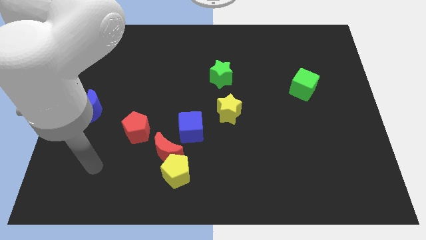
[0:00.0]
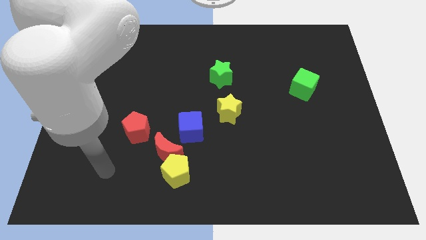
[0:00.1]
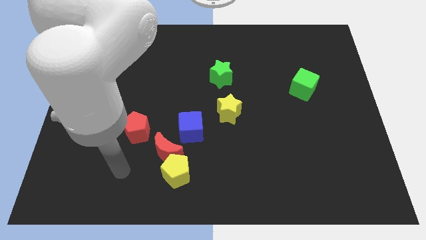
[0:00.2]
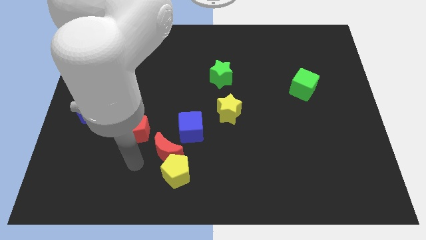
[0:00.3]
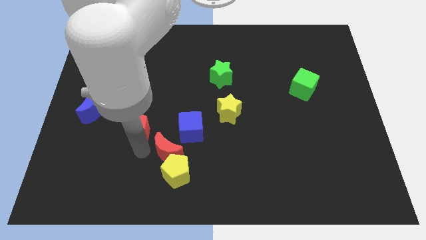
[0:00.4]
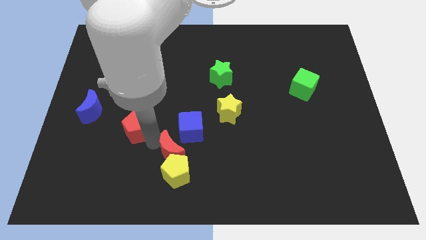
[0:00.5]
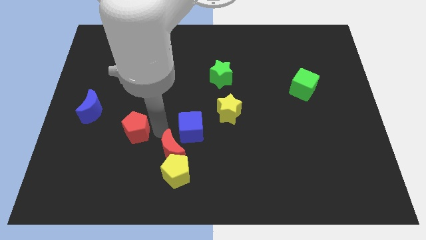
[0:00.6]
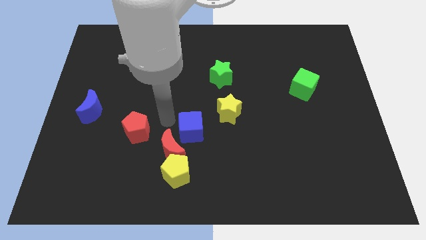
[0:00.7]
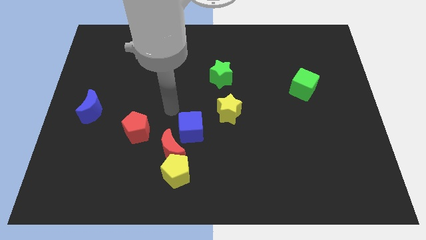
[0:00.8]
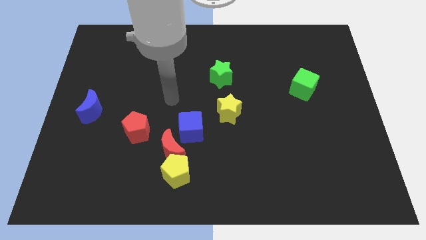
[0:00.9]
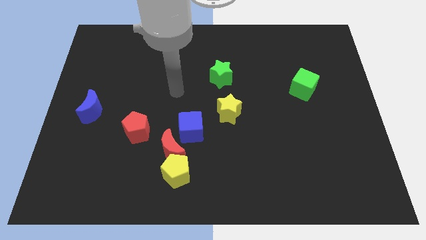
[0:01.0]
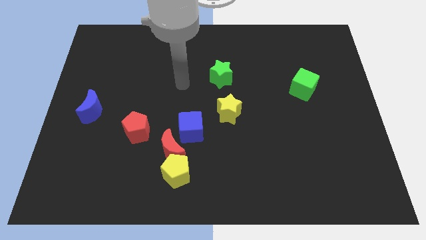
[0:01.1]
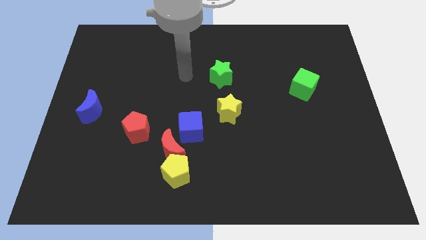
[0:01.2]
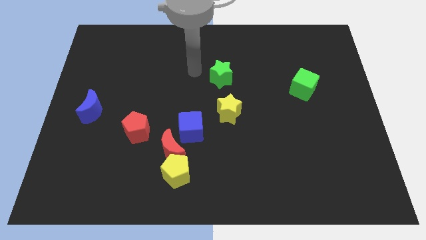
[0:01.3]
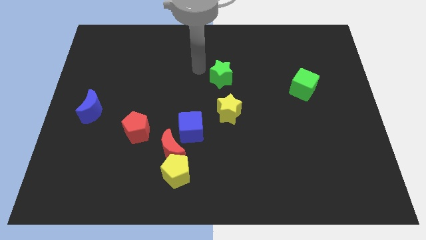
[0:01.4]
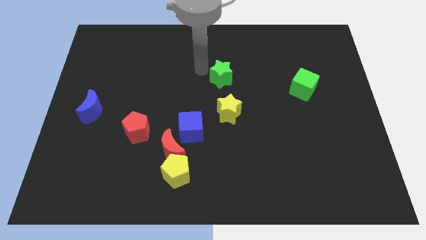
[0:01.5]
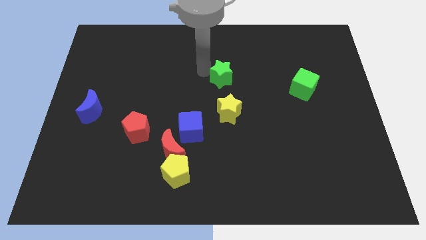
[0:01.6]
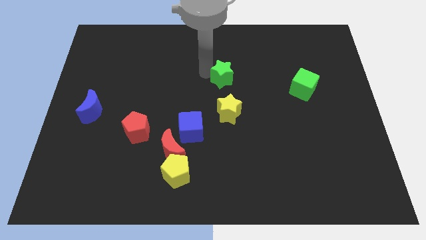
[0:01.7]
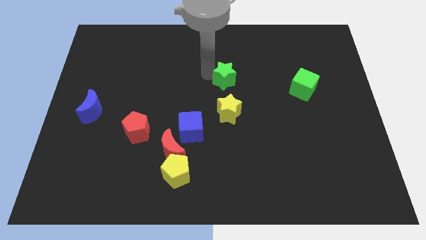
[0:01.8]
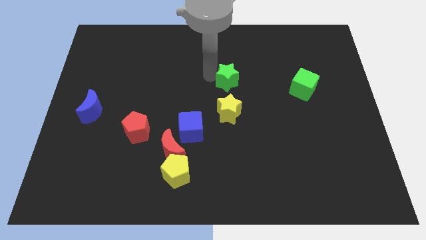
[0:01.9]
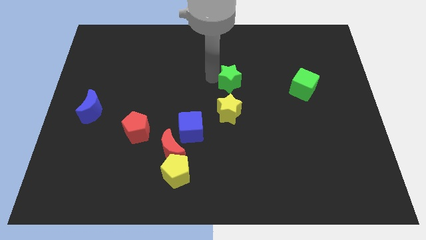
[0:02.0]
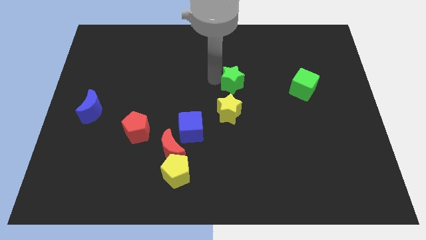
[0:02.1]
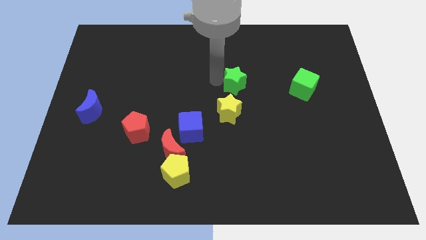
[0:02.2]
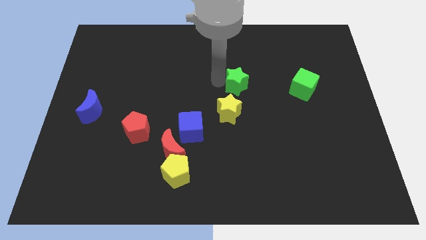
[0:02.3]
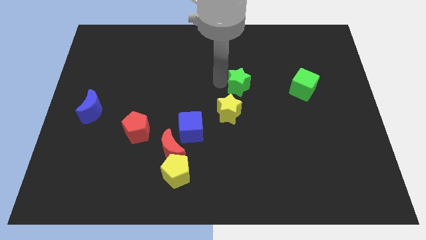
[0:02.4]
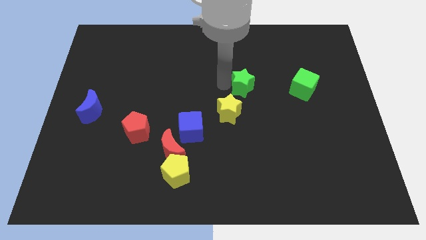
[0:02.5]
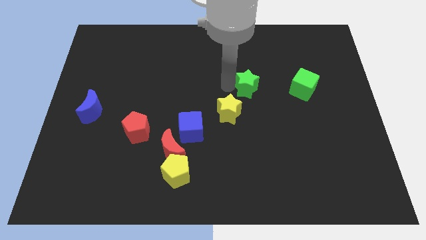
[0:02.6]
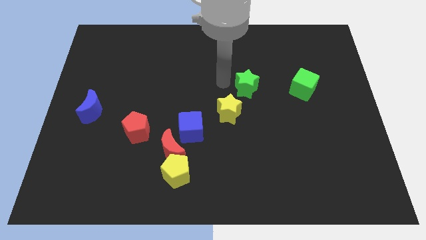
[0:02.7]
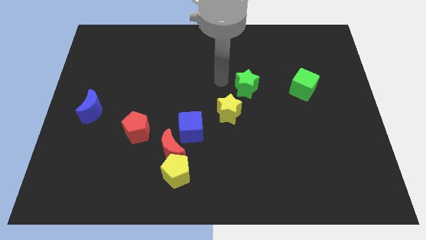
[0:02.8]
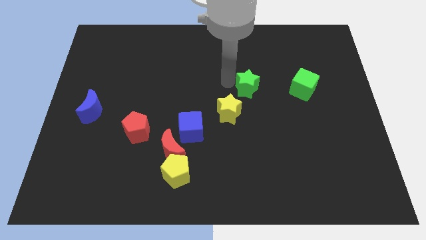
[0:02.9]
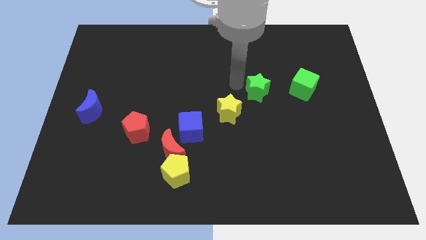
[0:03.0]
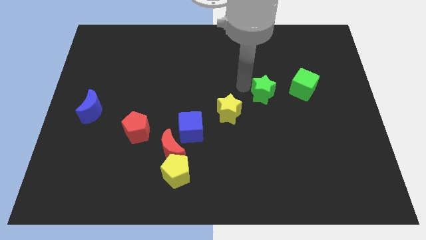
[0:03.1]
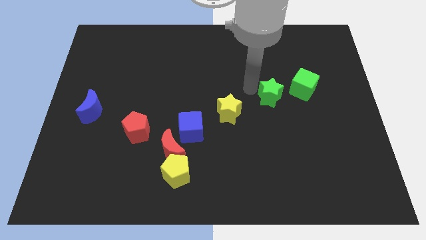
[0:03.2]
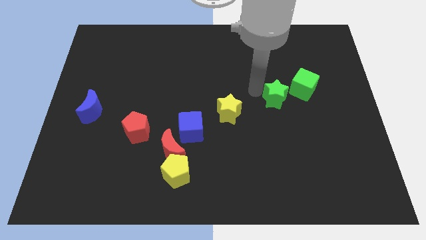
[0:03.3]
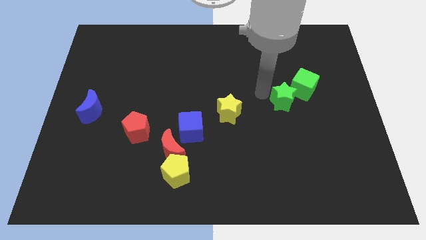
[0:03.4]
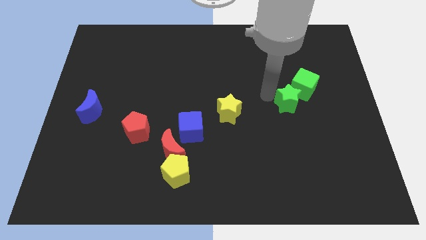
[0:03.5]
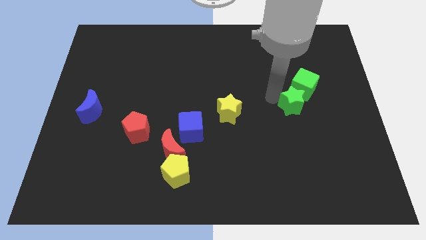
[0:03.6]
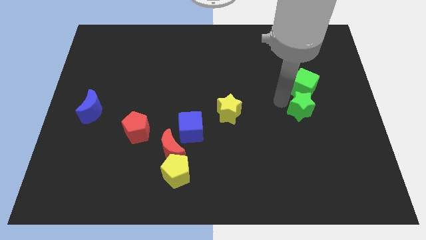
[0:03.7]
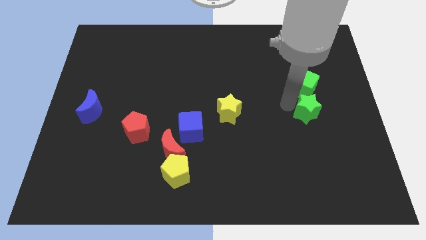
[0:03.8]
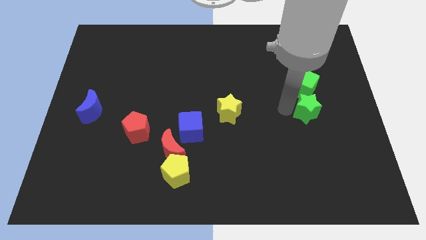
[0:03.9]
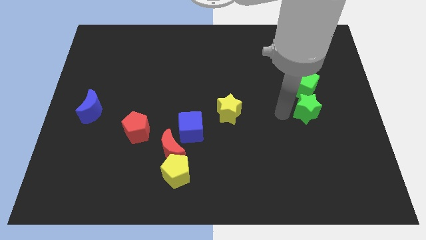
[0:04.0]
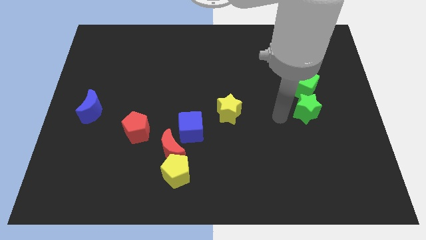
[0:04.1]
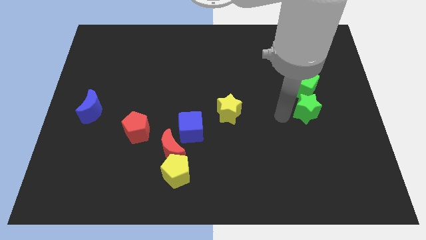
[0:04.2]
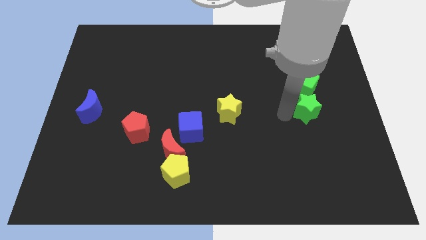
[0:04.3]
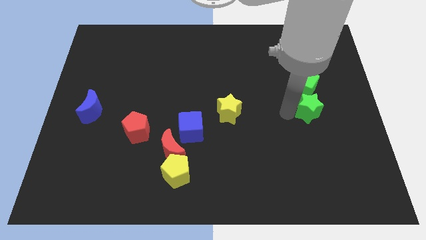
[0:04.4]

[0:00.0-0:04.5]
put the green star to the bottom right side of the green cube

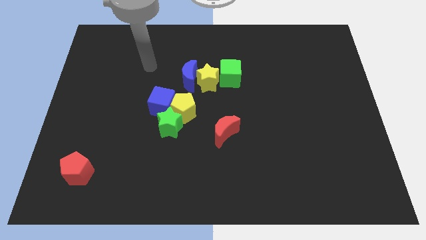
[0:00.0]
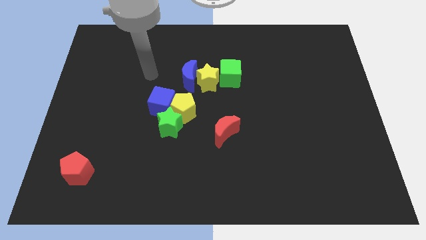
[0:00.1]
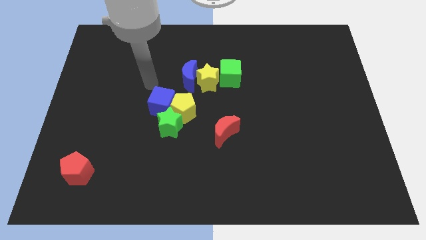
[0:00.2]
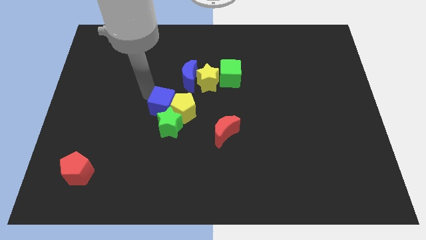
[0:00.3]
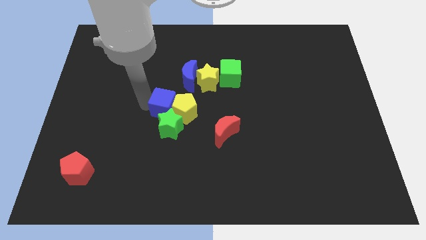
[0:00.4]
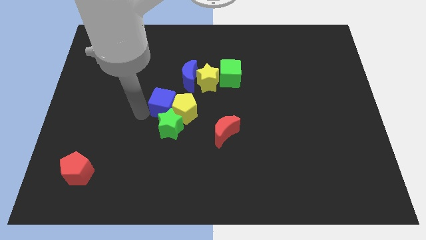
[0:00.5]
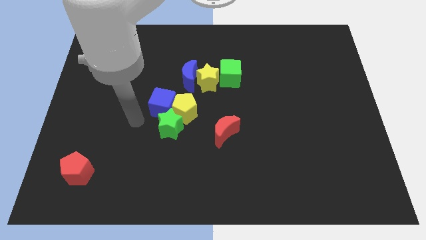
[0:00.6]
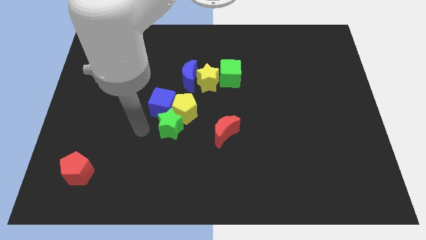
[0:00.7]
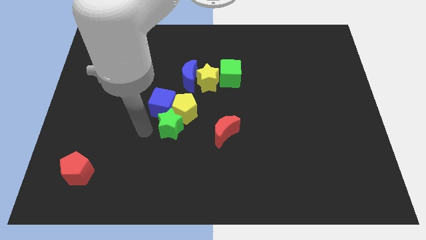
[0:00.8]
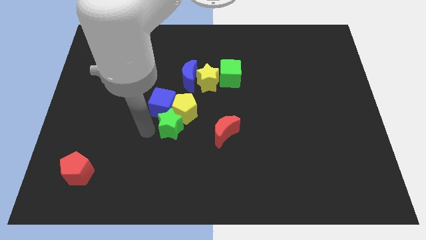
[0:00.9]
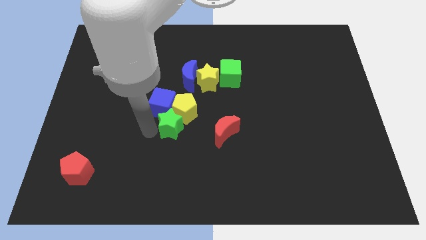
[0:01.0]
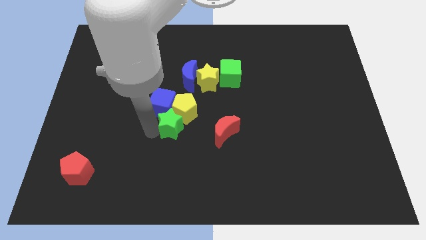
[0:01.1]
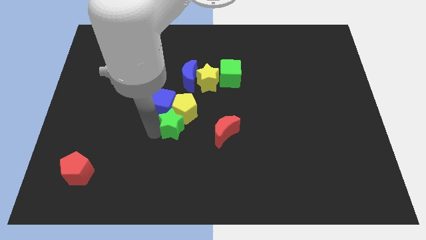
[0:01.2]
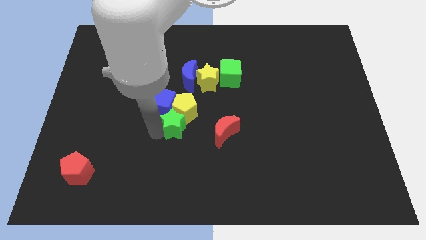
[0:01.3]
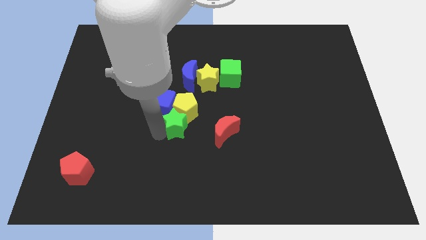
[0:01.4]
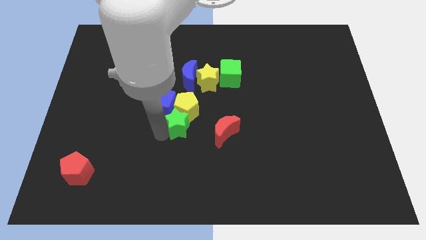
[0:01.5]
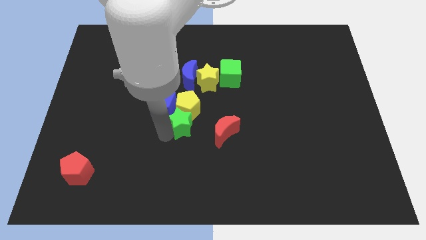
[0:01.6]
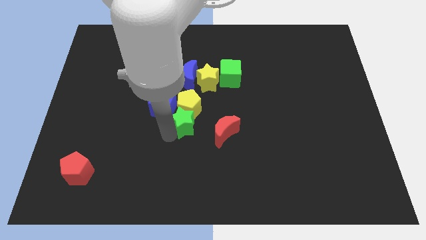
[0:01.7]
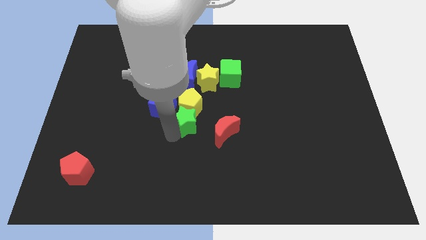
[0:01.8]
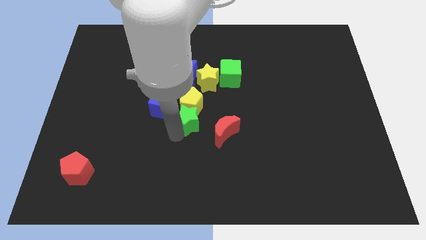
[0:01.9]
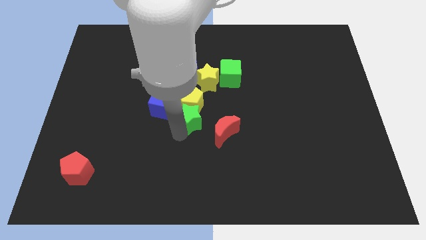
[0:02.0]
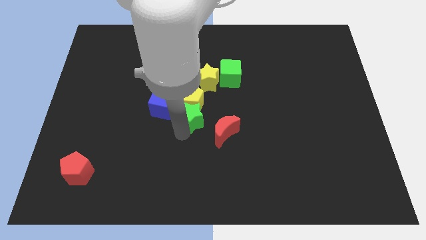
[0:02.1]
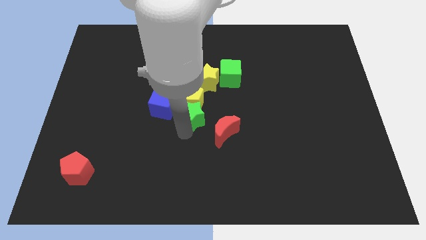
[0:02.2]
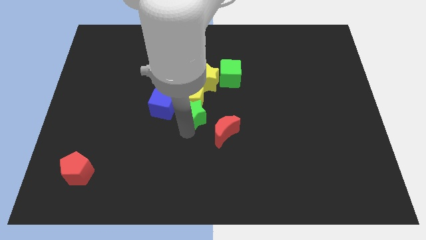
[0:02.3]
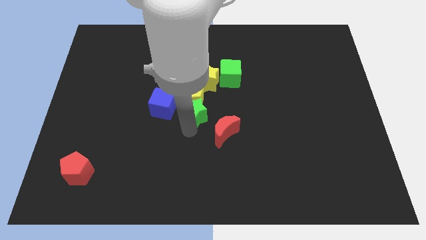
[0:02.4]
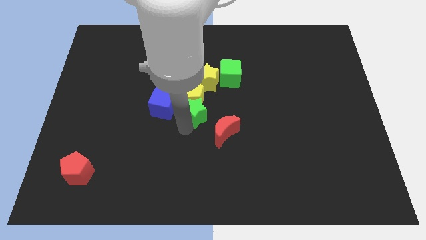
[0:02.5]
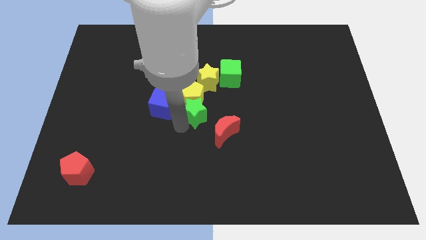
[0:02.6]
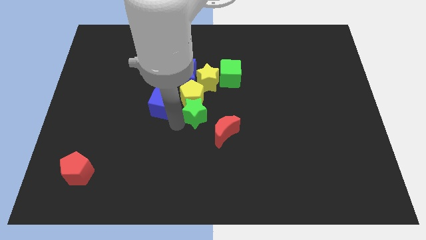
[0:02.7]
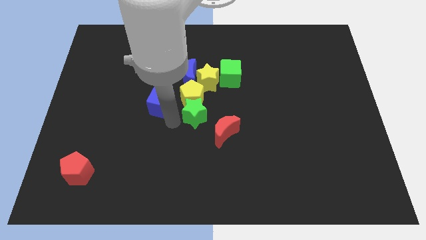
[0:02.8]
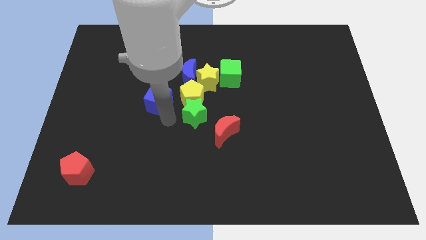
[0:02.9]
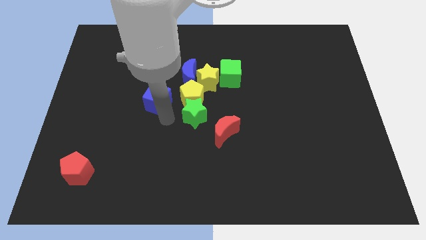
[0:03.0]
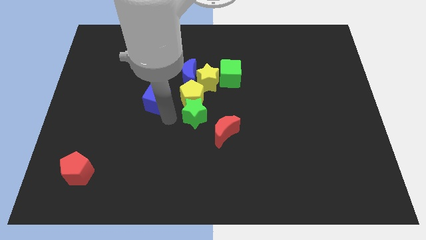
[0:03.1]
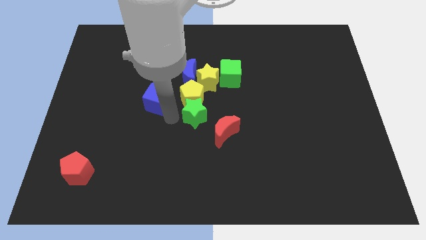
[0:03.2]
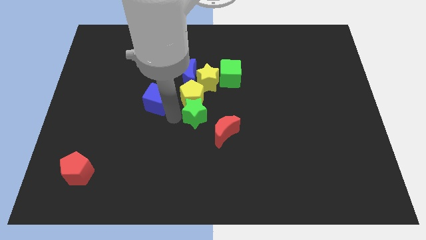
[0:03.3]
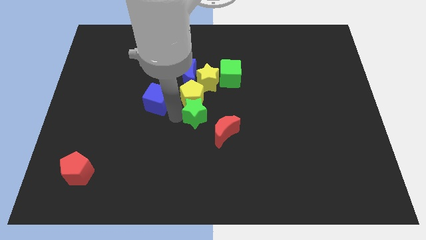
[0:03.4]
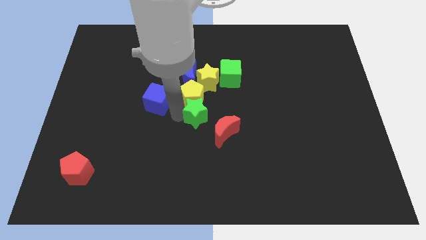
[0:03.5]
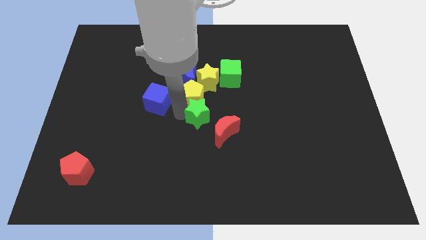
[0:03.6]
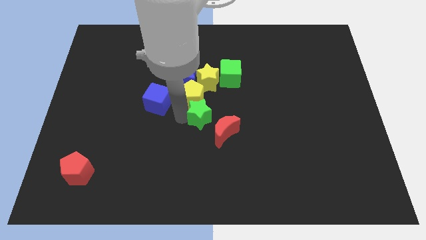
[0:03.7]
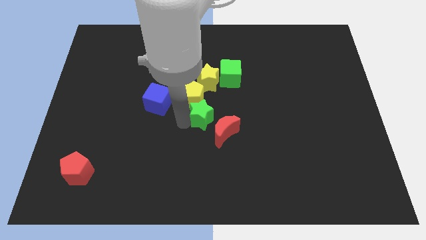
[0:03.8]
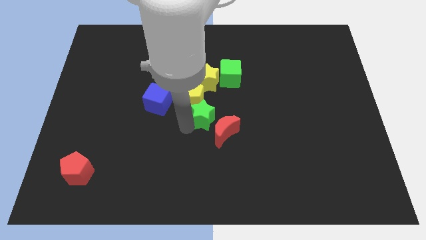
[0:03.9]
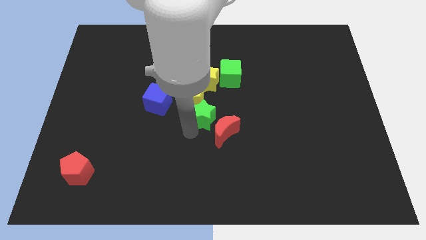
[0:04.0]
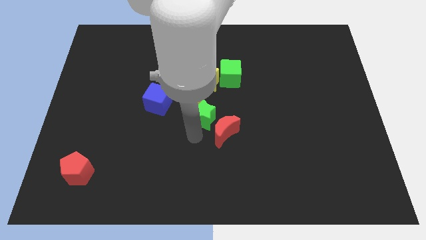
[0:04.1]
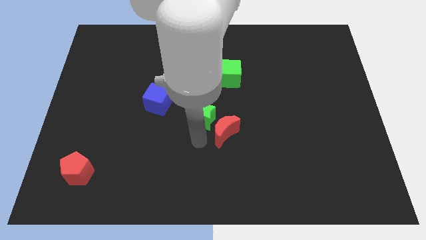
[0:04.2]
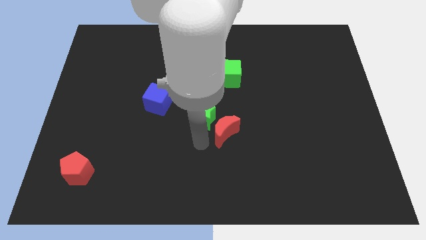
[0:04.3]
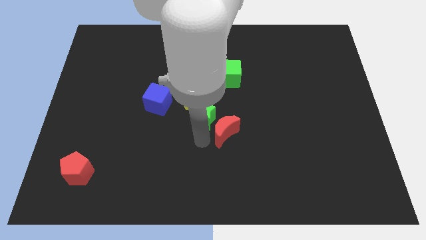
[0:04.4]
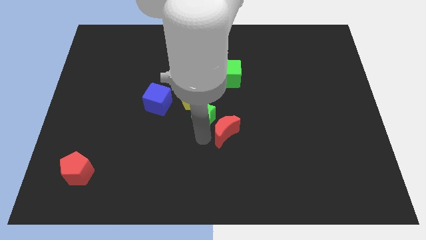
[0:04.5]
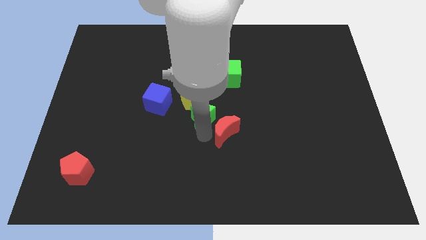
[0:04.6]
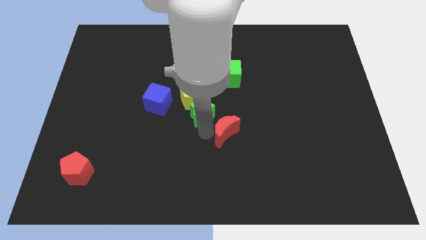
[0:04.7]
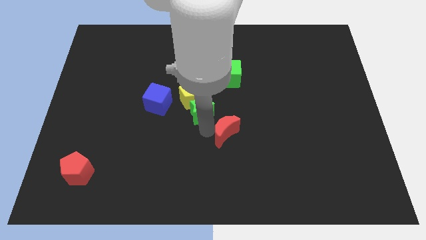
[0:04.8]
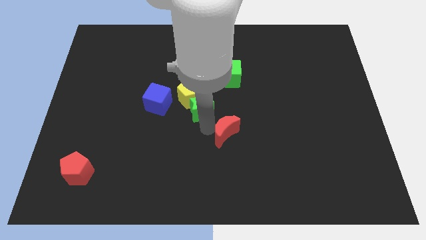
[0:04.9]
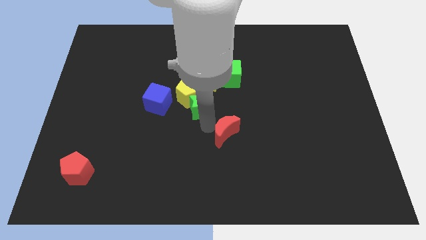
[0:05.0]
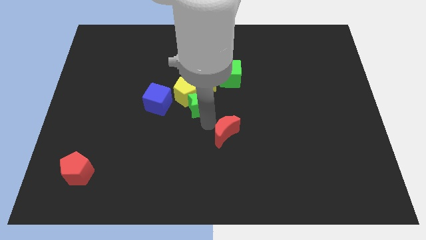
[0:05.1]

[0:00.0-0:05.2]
push the green star to the bottom left side of the yellow star
